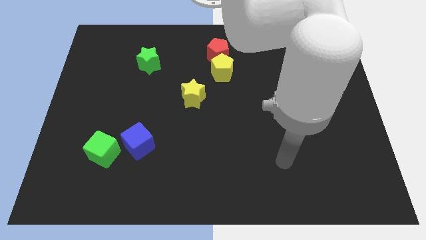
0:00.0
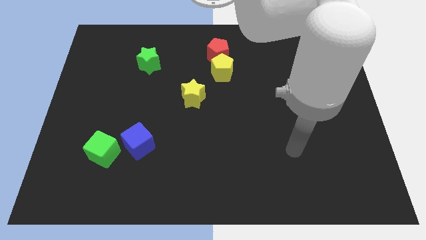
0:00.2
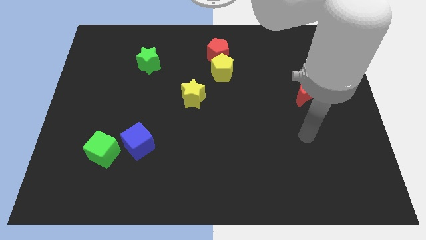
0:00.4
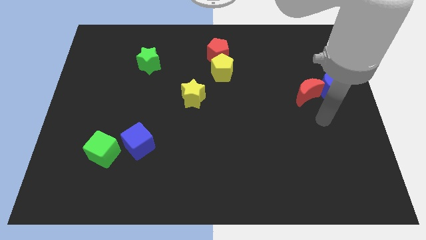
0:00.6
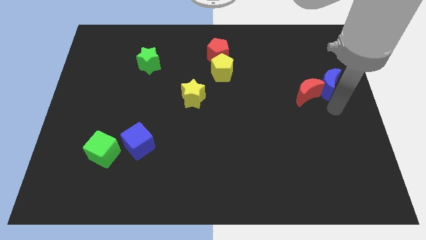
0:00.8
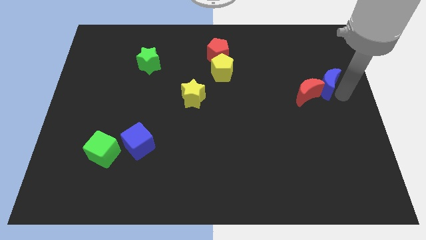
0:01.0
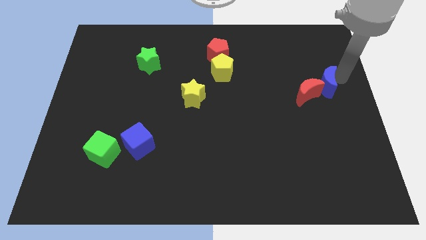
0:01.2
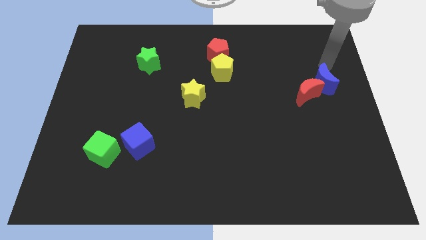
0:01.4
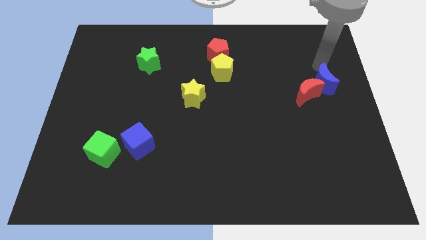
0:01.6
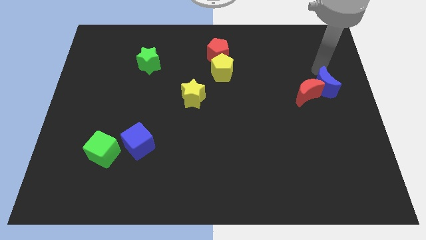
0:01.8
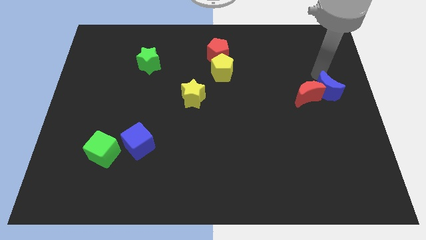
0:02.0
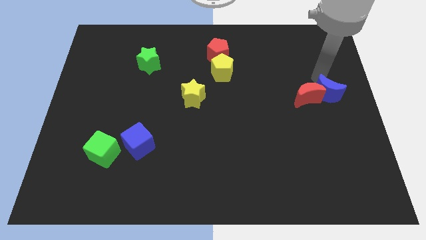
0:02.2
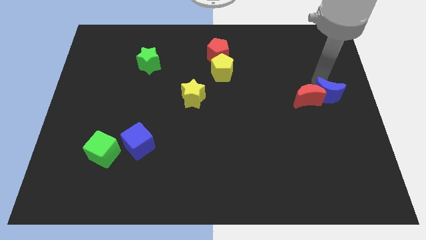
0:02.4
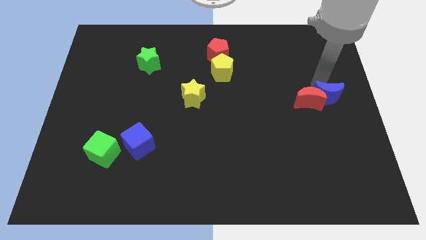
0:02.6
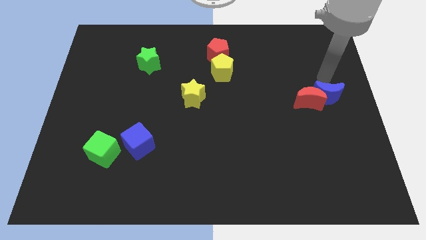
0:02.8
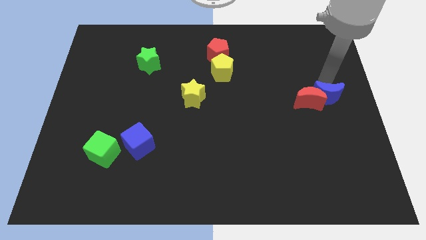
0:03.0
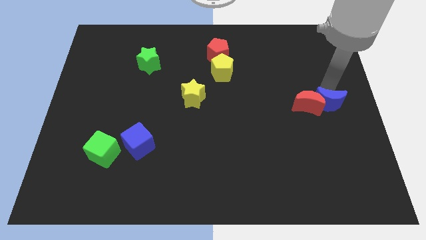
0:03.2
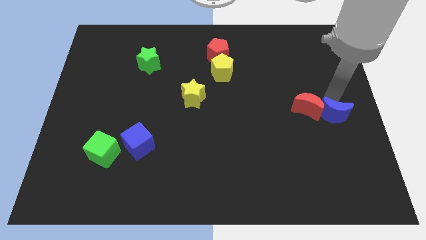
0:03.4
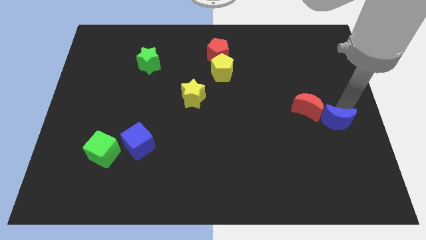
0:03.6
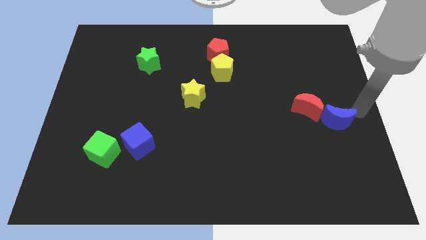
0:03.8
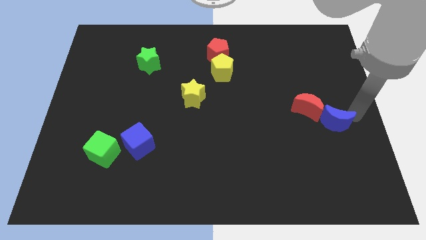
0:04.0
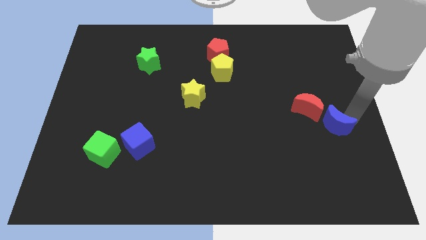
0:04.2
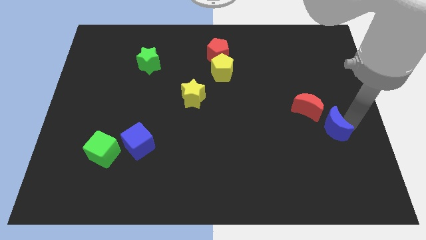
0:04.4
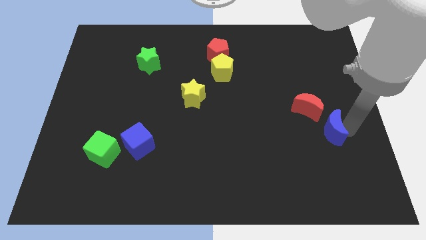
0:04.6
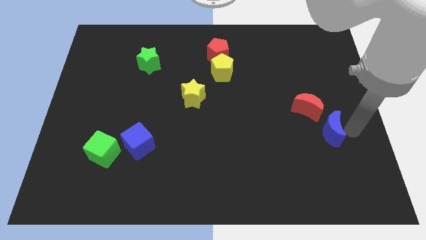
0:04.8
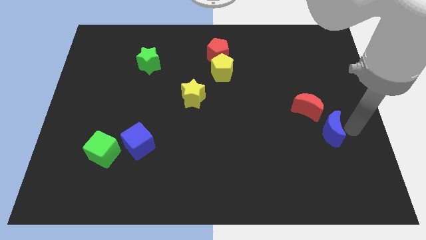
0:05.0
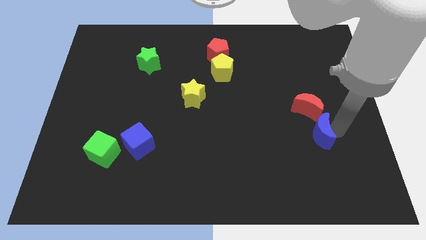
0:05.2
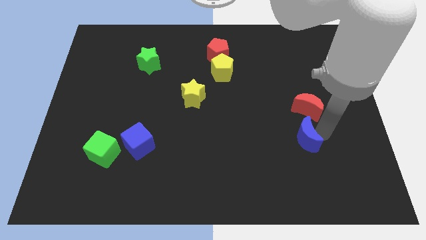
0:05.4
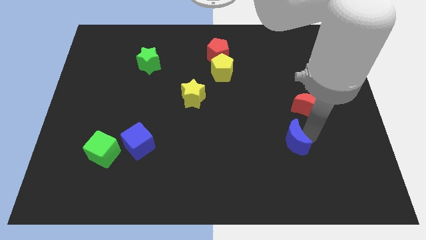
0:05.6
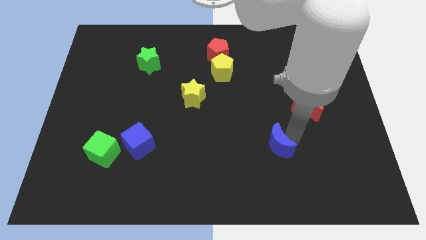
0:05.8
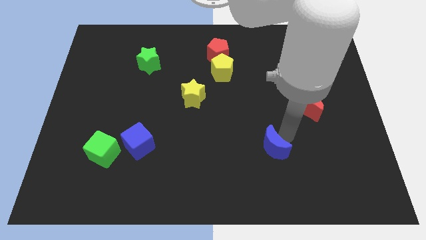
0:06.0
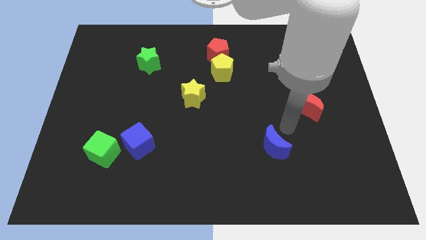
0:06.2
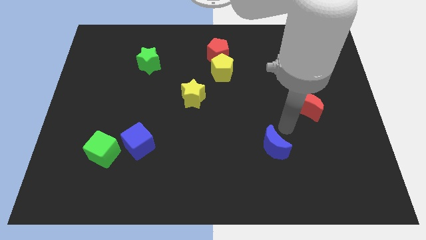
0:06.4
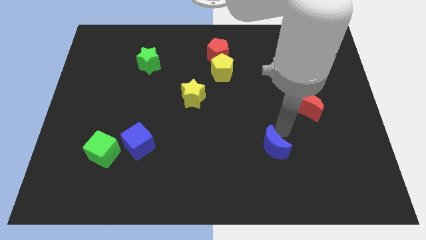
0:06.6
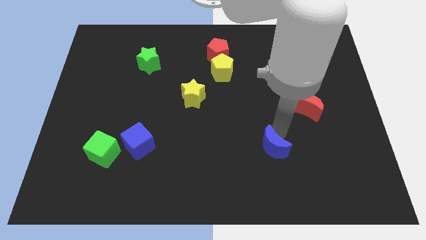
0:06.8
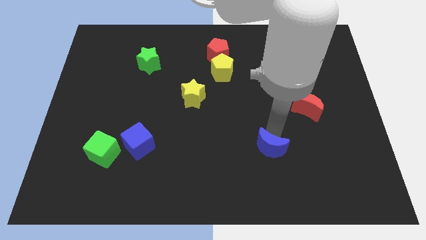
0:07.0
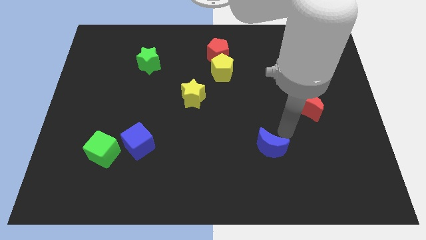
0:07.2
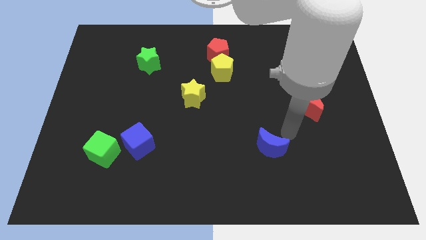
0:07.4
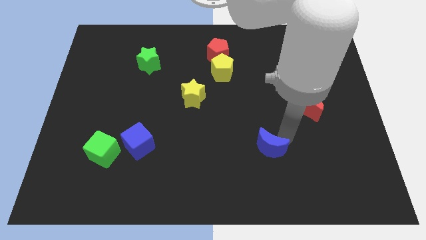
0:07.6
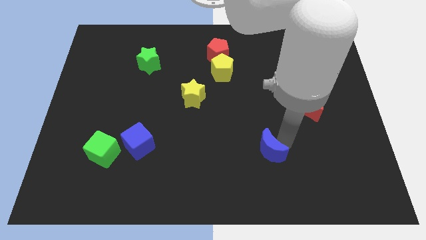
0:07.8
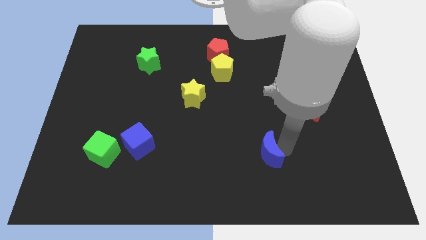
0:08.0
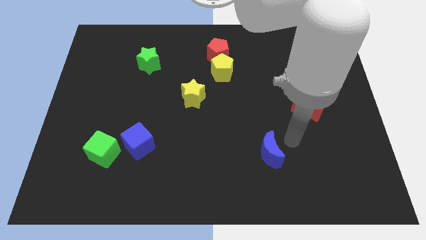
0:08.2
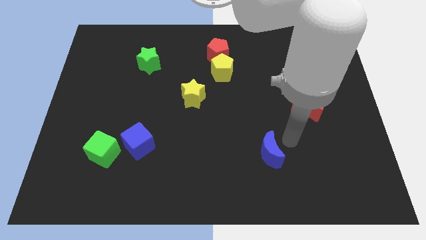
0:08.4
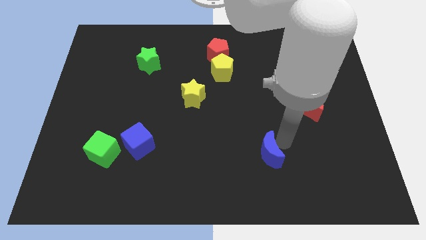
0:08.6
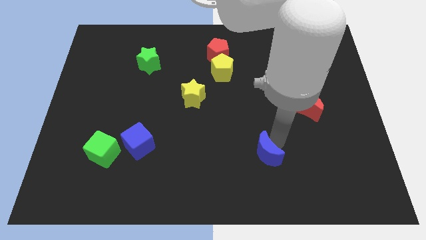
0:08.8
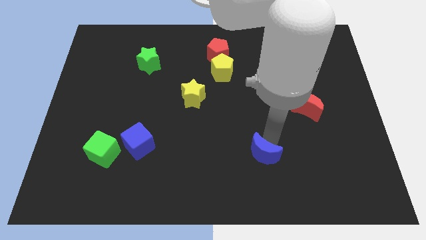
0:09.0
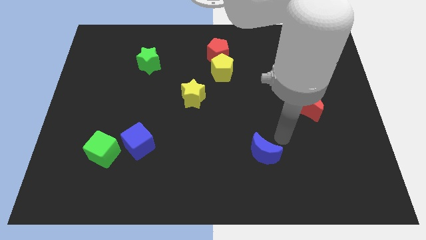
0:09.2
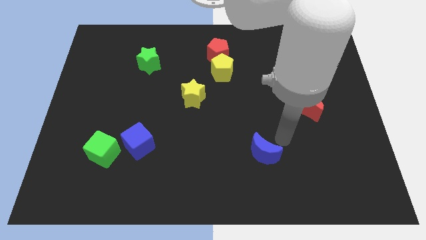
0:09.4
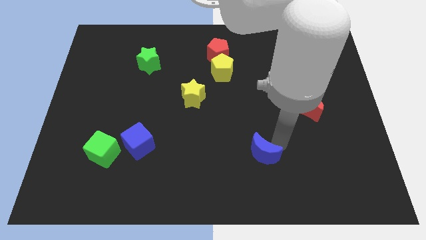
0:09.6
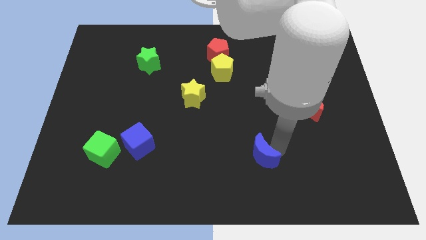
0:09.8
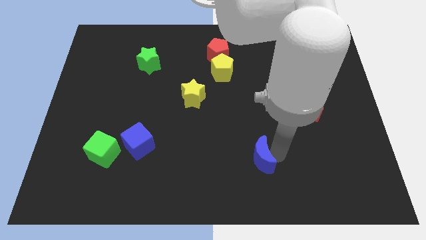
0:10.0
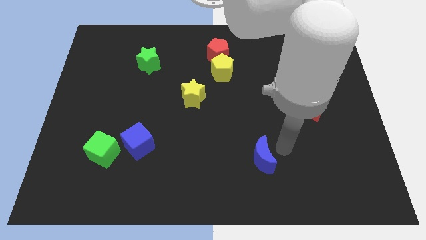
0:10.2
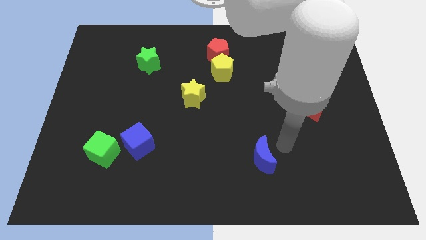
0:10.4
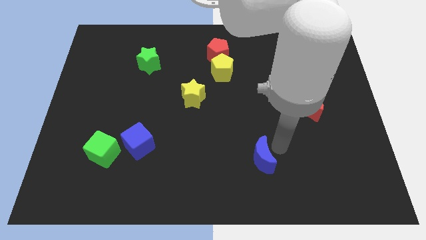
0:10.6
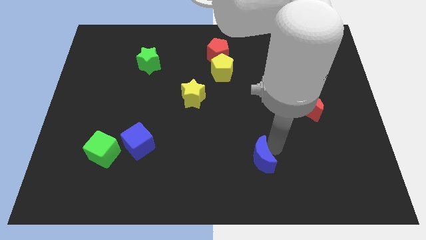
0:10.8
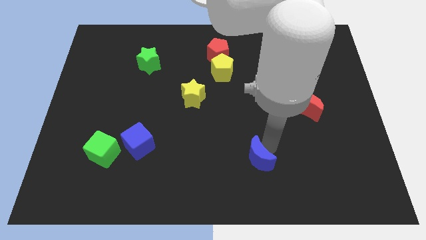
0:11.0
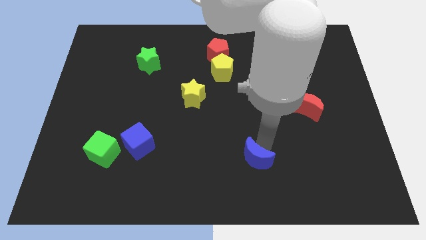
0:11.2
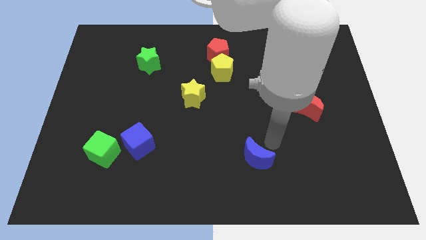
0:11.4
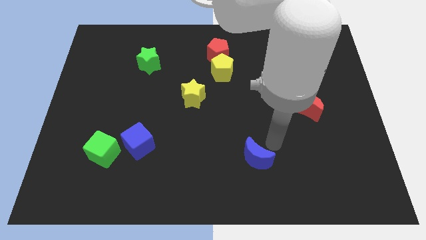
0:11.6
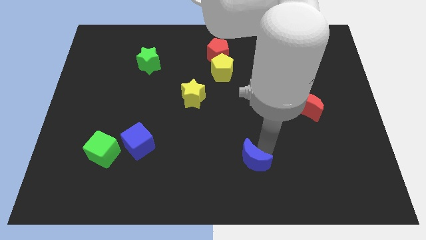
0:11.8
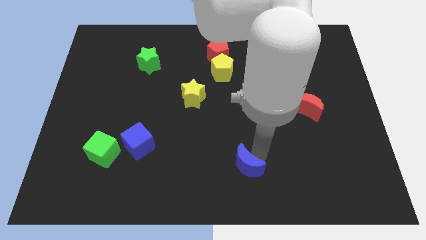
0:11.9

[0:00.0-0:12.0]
push the blue moon to the bottom side
